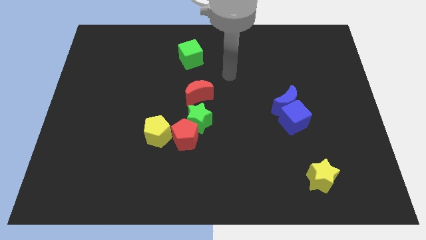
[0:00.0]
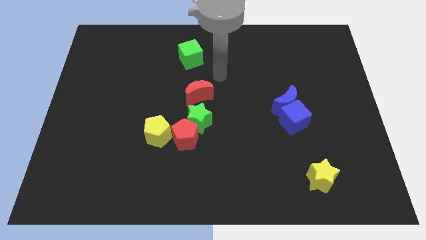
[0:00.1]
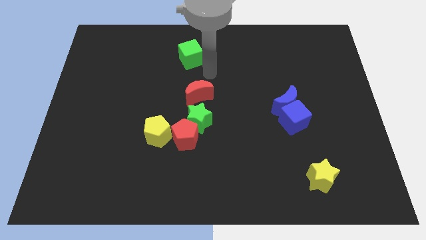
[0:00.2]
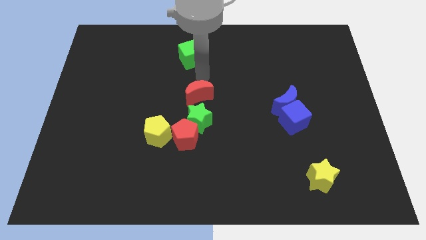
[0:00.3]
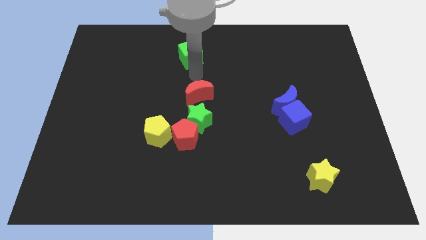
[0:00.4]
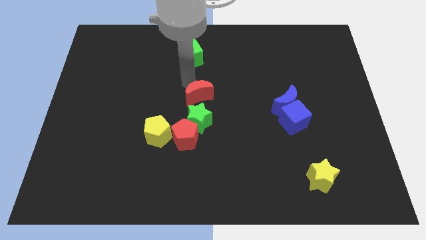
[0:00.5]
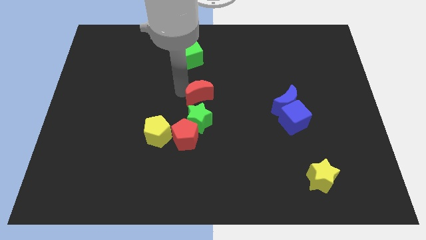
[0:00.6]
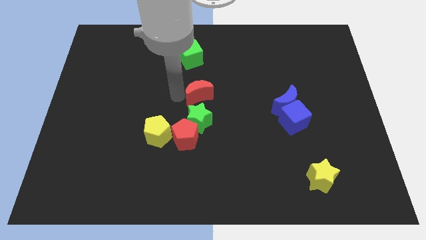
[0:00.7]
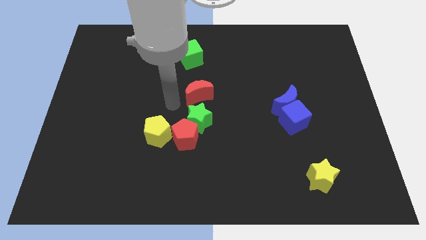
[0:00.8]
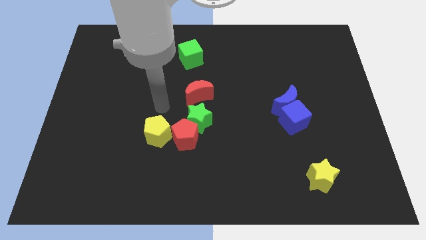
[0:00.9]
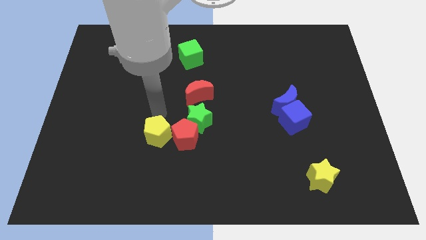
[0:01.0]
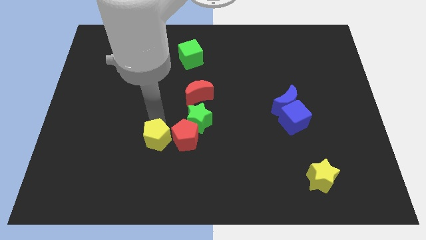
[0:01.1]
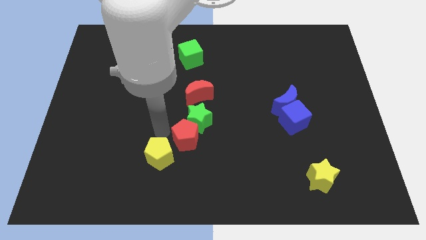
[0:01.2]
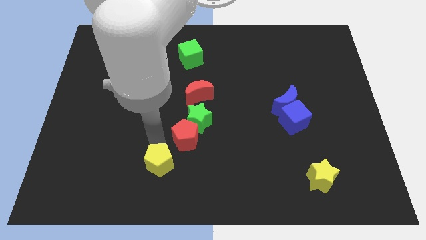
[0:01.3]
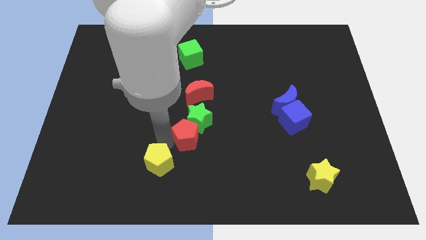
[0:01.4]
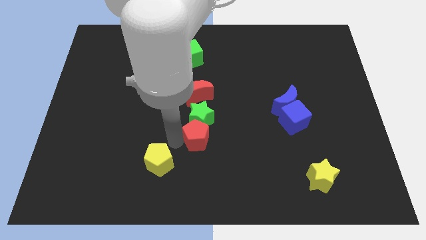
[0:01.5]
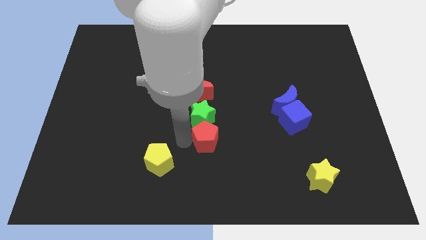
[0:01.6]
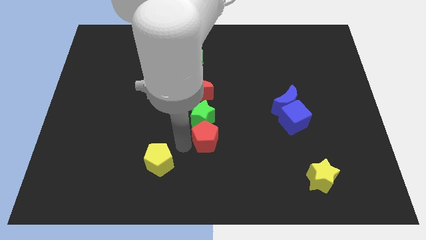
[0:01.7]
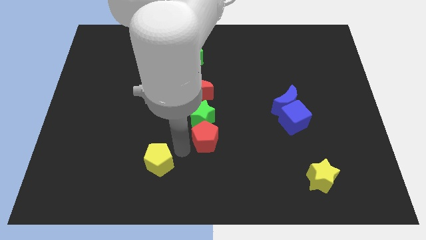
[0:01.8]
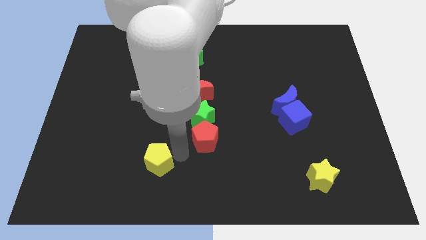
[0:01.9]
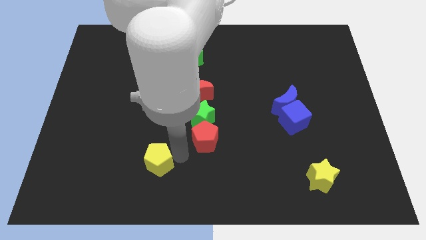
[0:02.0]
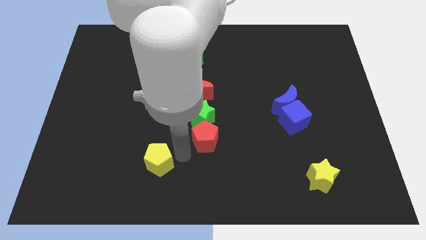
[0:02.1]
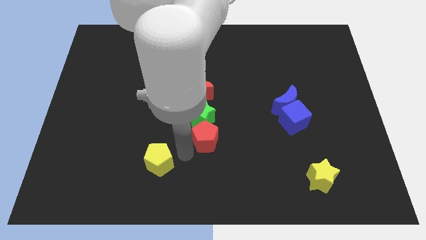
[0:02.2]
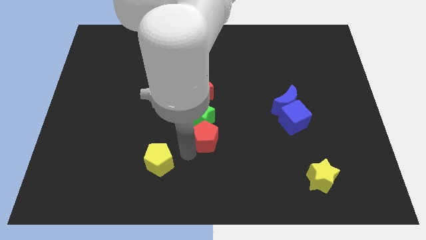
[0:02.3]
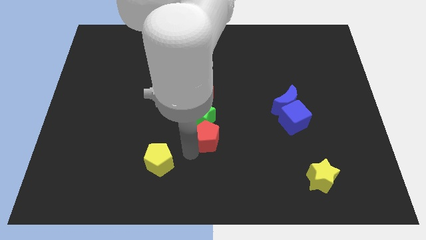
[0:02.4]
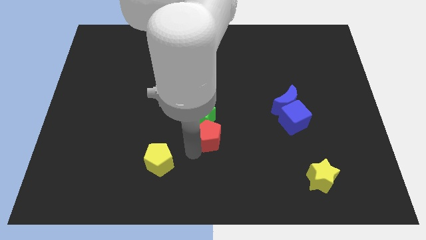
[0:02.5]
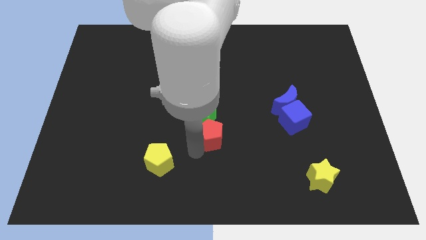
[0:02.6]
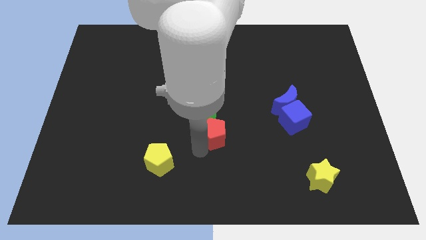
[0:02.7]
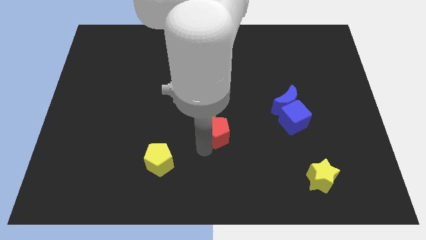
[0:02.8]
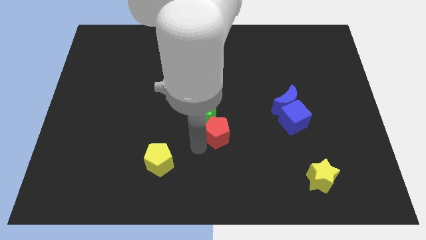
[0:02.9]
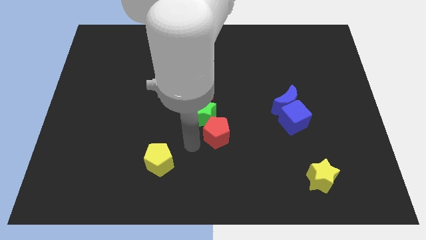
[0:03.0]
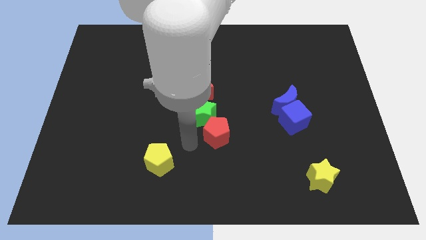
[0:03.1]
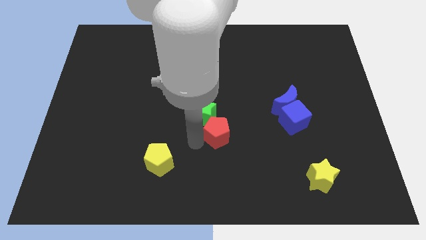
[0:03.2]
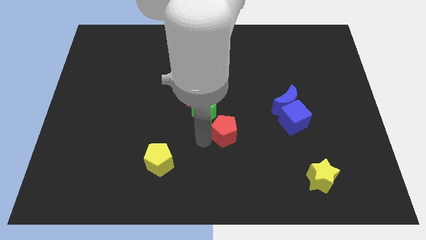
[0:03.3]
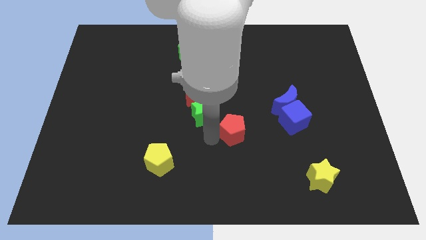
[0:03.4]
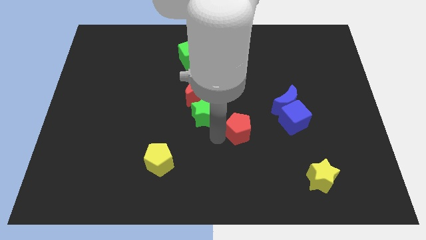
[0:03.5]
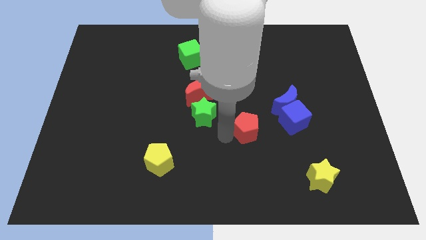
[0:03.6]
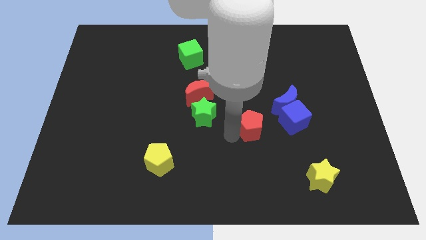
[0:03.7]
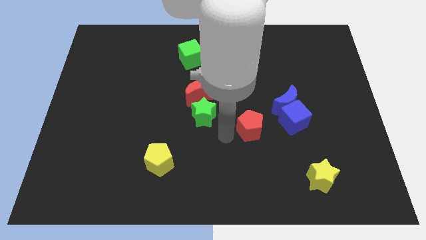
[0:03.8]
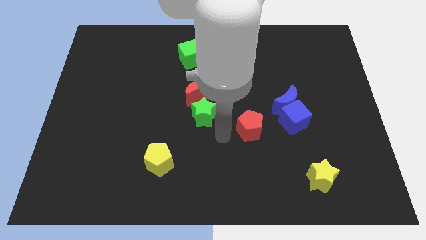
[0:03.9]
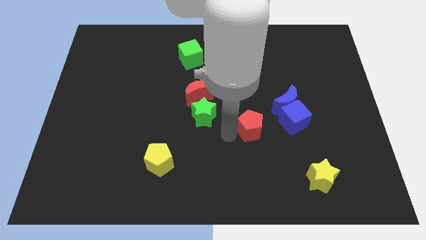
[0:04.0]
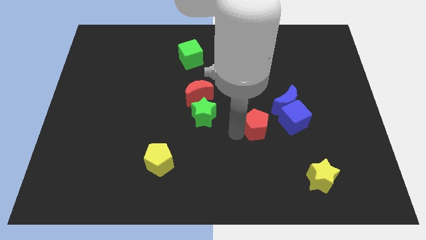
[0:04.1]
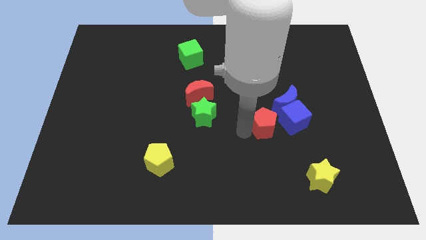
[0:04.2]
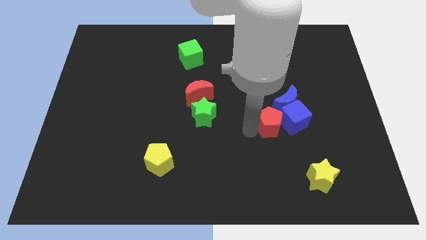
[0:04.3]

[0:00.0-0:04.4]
push the red pentagon to the blue cube

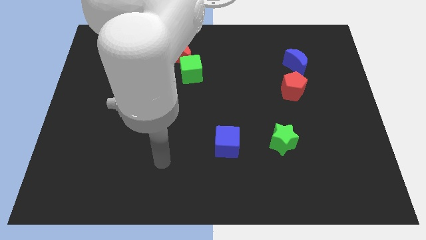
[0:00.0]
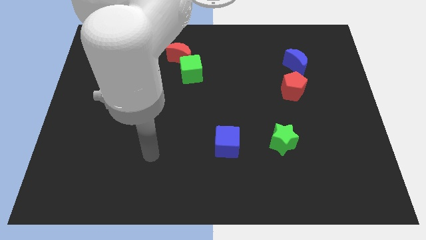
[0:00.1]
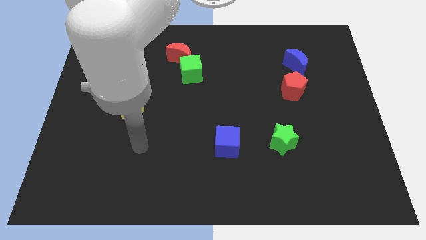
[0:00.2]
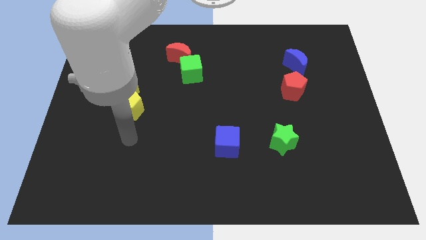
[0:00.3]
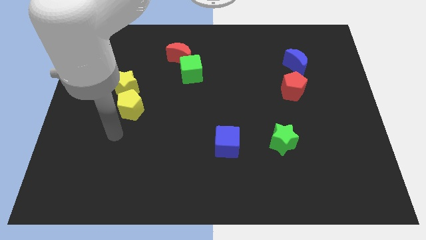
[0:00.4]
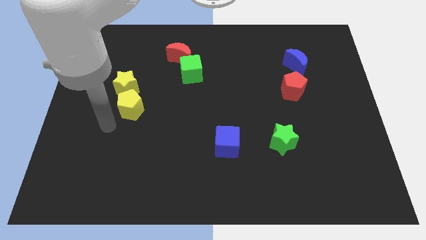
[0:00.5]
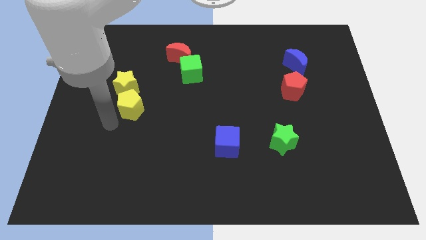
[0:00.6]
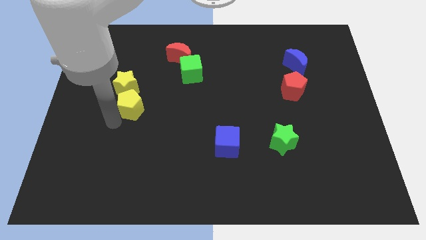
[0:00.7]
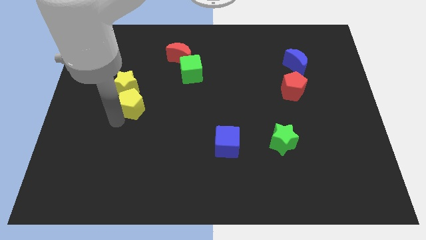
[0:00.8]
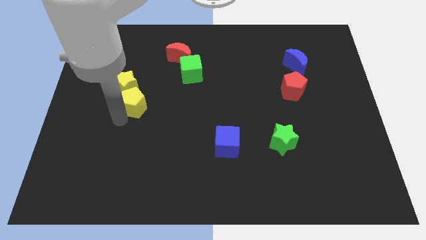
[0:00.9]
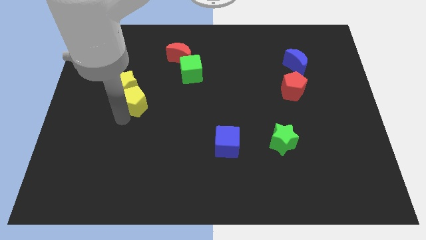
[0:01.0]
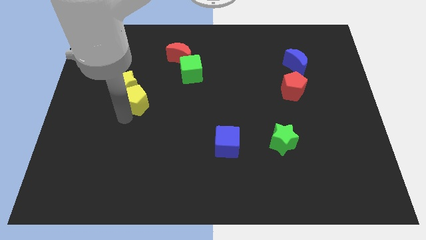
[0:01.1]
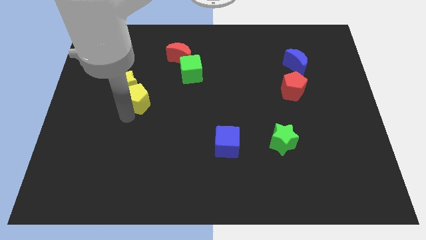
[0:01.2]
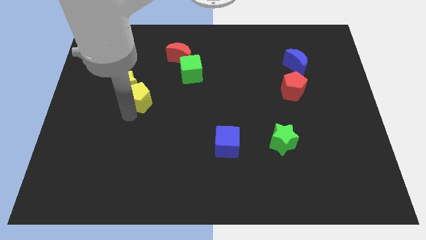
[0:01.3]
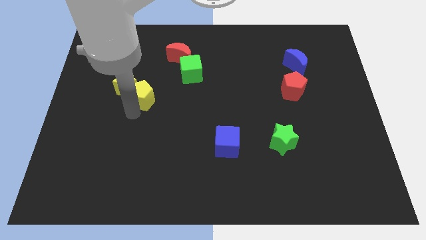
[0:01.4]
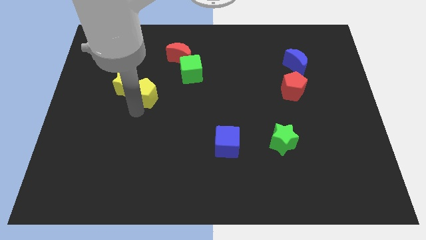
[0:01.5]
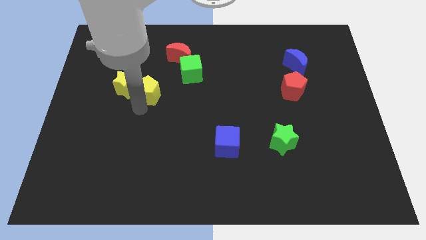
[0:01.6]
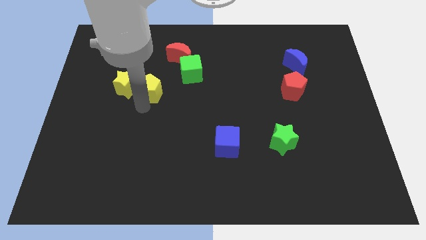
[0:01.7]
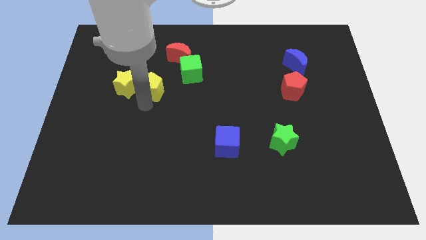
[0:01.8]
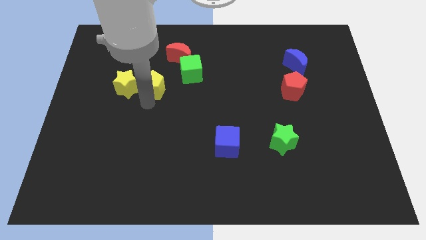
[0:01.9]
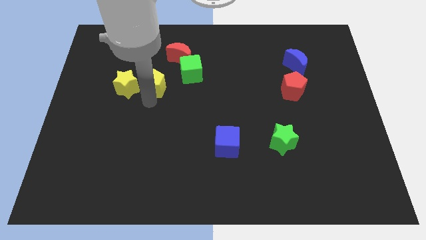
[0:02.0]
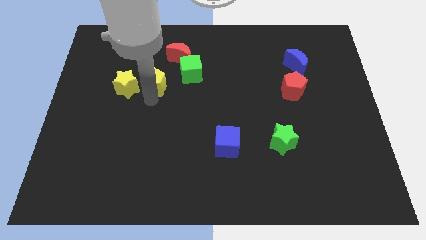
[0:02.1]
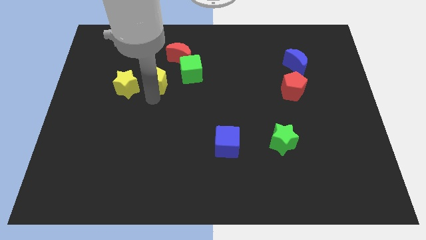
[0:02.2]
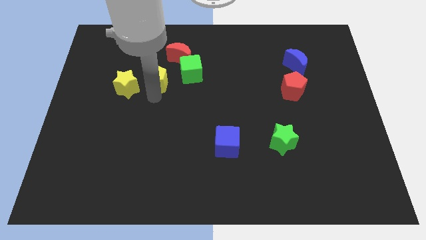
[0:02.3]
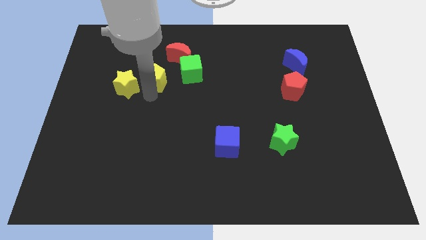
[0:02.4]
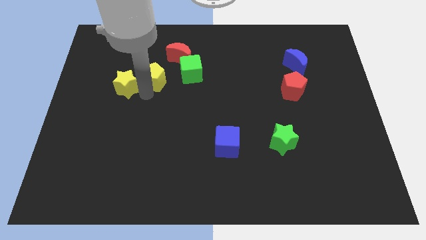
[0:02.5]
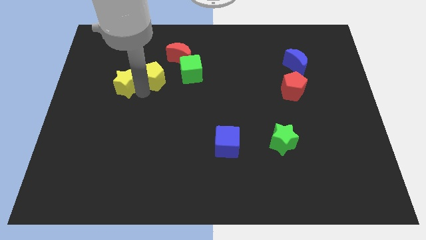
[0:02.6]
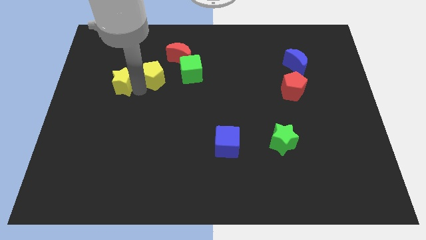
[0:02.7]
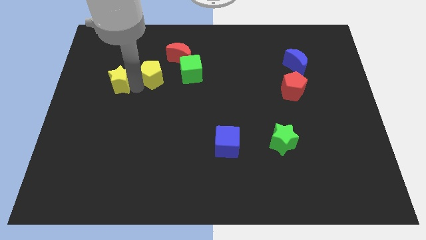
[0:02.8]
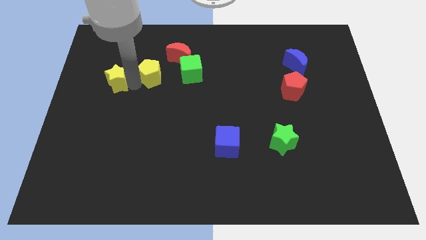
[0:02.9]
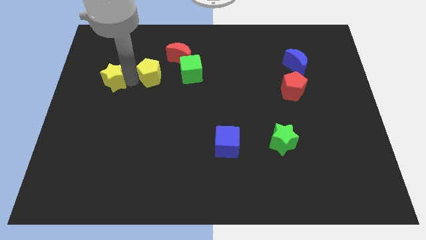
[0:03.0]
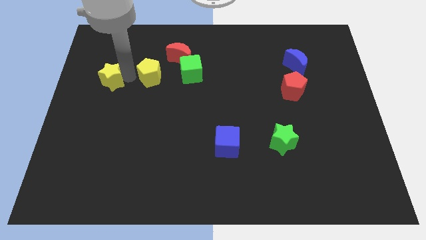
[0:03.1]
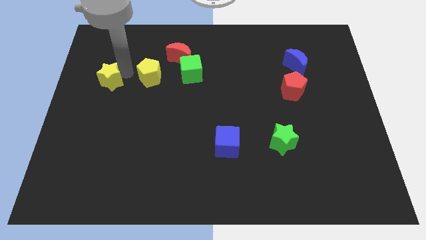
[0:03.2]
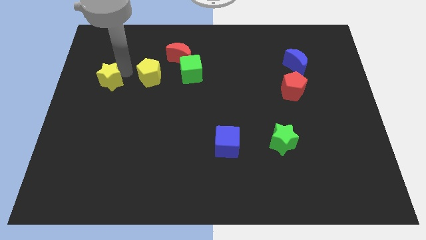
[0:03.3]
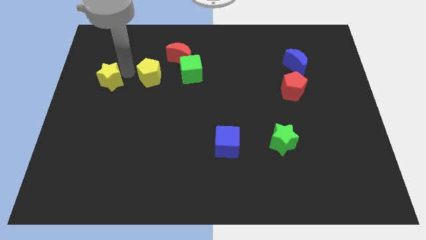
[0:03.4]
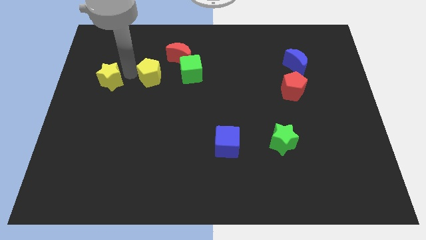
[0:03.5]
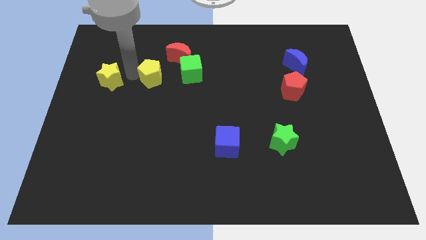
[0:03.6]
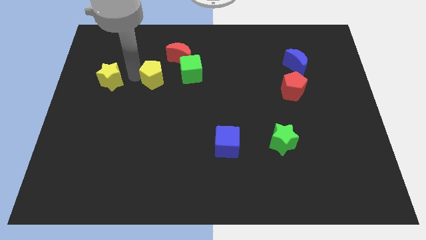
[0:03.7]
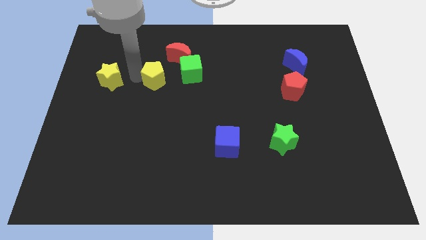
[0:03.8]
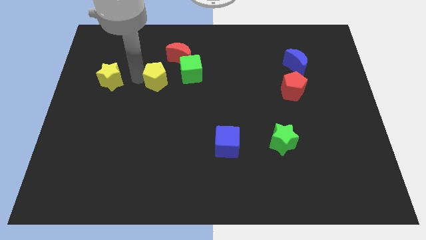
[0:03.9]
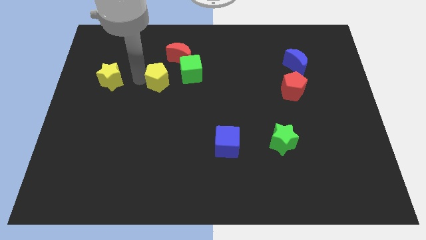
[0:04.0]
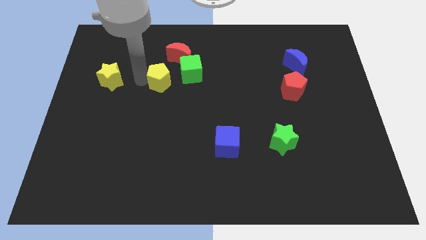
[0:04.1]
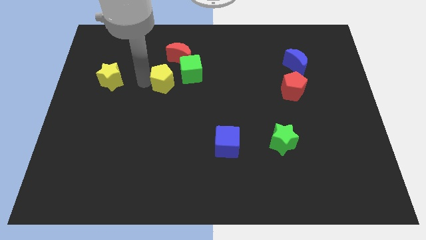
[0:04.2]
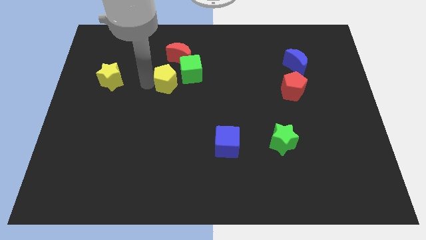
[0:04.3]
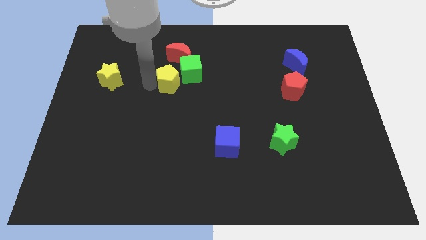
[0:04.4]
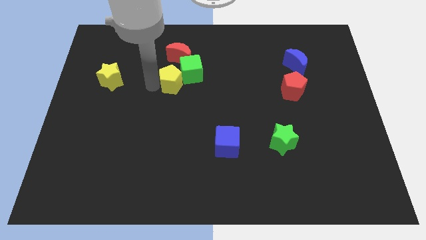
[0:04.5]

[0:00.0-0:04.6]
put the yellow pentagon towards the green cube
